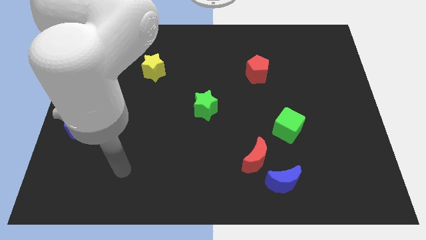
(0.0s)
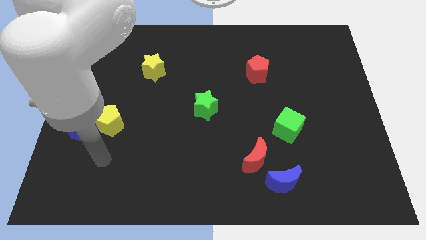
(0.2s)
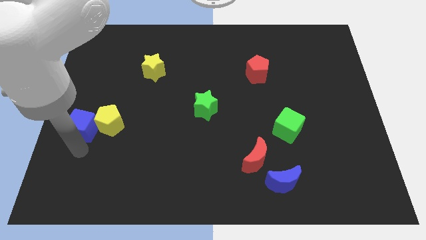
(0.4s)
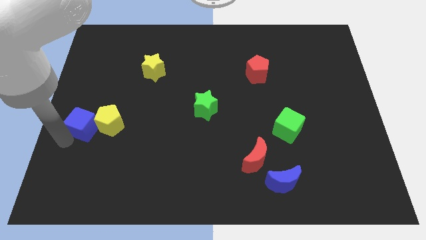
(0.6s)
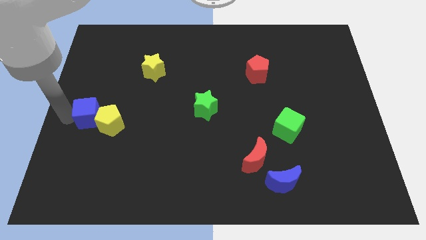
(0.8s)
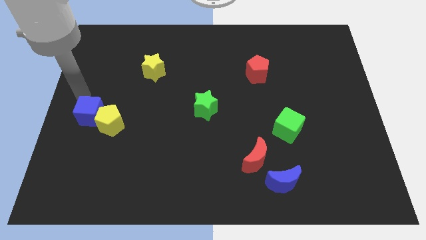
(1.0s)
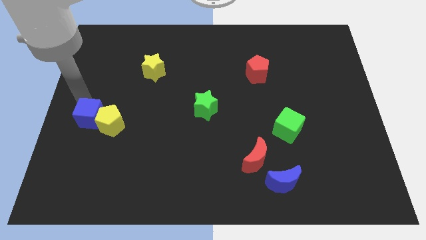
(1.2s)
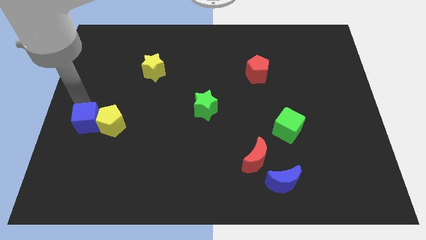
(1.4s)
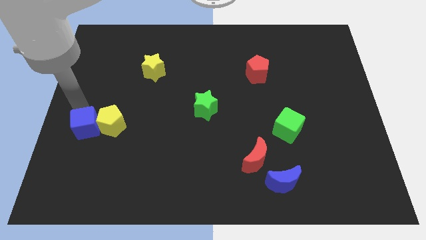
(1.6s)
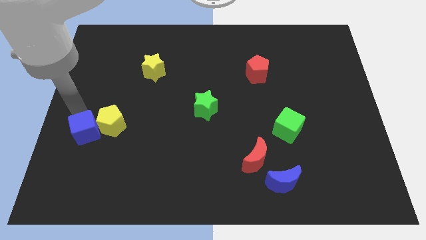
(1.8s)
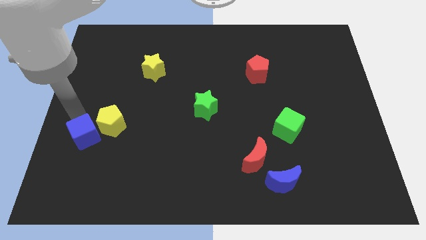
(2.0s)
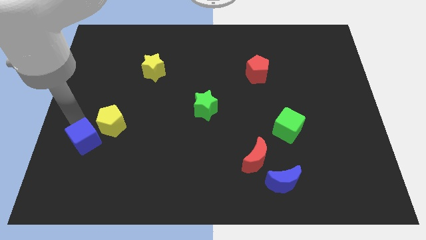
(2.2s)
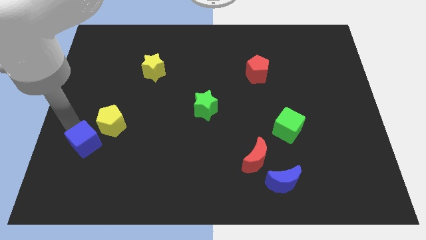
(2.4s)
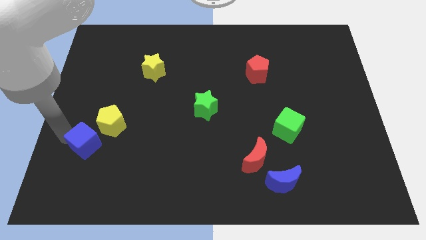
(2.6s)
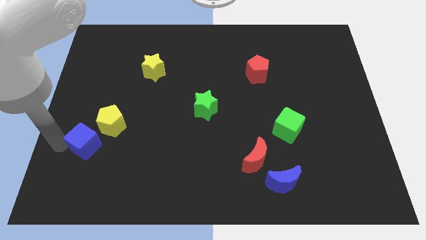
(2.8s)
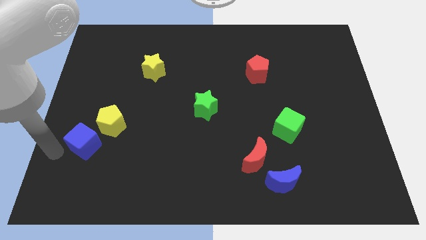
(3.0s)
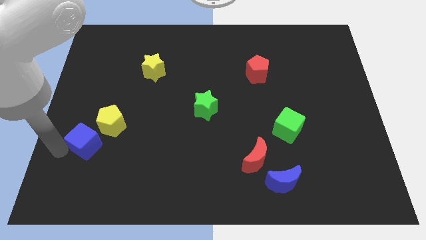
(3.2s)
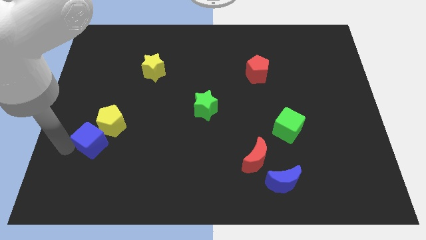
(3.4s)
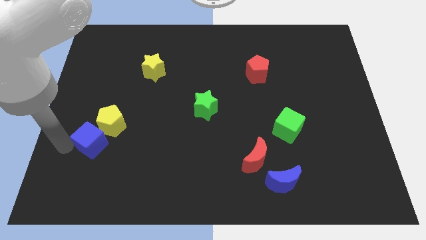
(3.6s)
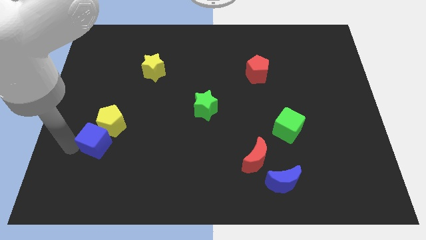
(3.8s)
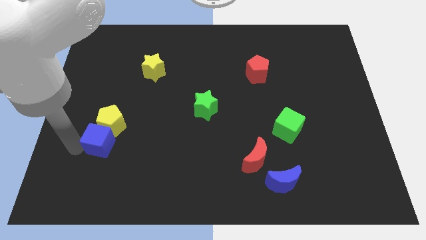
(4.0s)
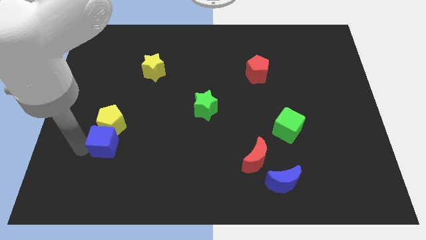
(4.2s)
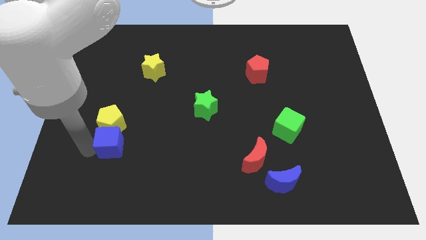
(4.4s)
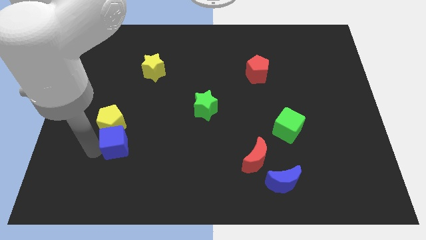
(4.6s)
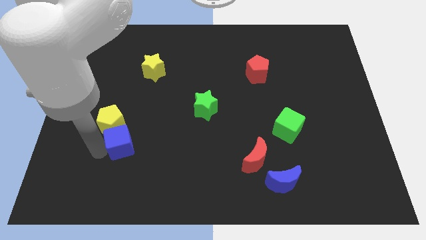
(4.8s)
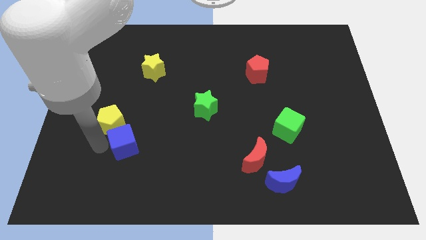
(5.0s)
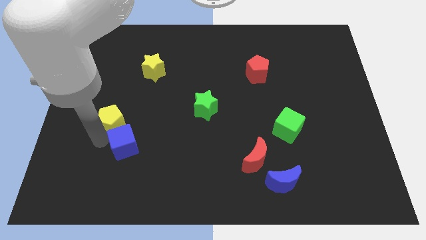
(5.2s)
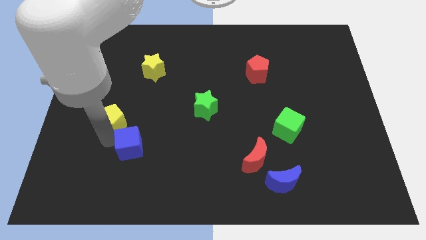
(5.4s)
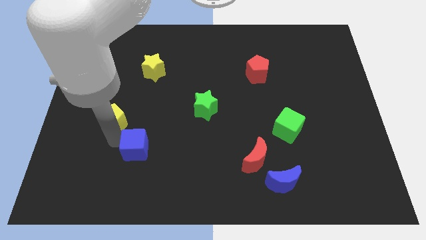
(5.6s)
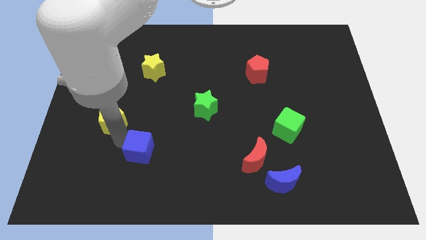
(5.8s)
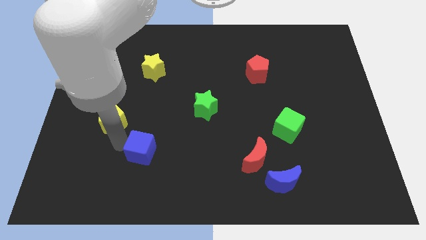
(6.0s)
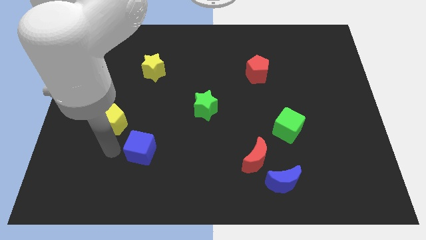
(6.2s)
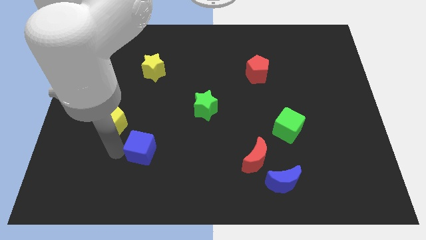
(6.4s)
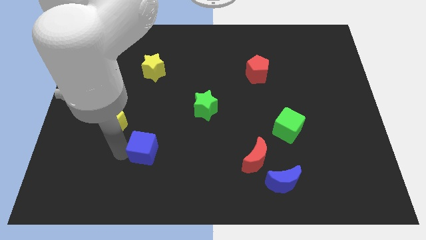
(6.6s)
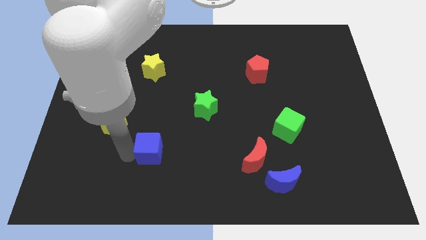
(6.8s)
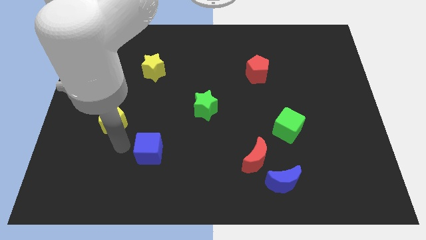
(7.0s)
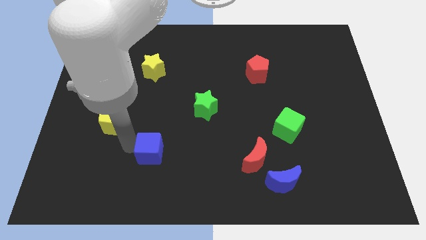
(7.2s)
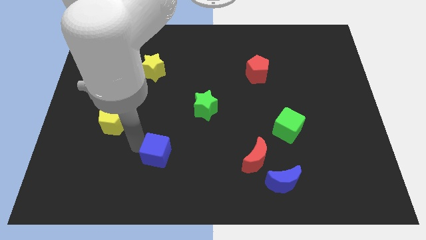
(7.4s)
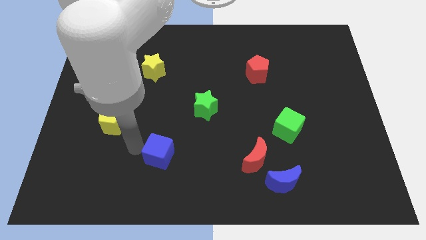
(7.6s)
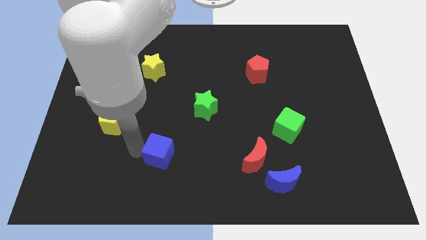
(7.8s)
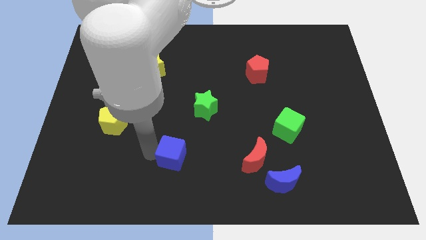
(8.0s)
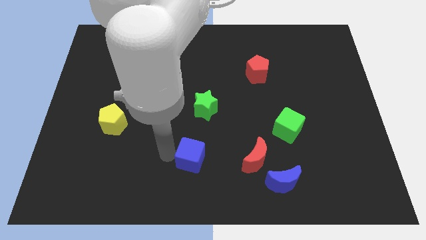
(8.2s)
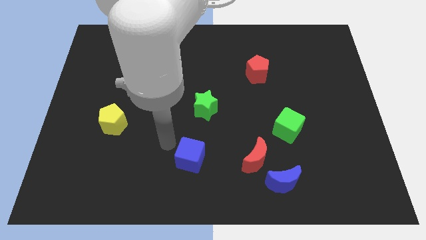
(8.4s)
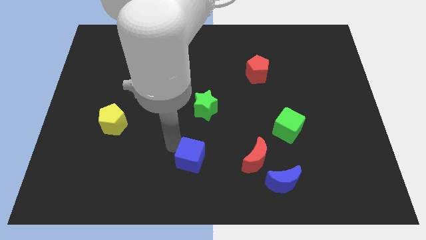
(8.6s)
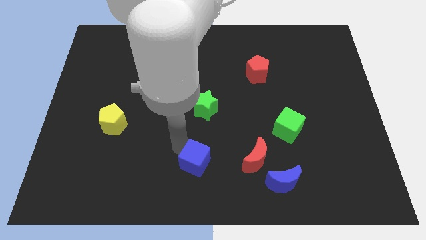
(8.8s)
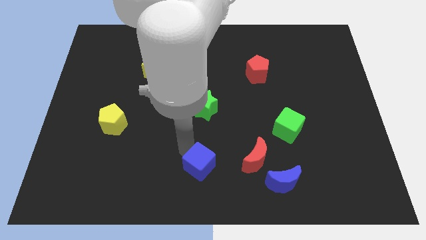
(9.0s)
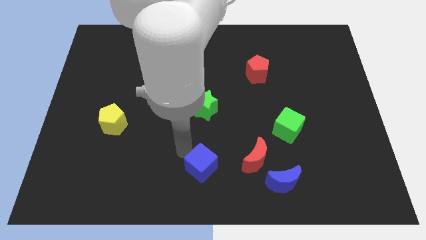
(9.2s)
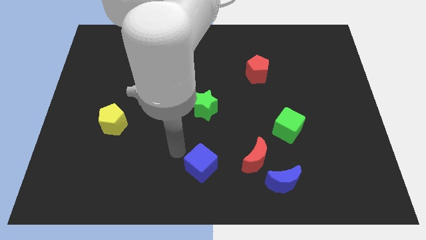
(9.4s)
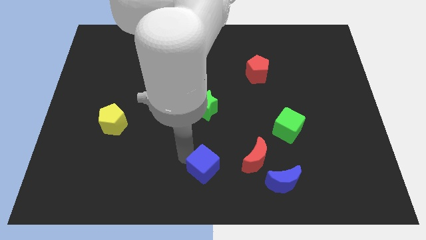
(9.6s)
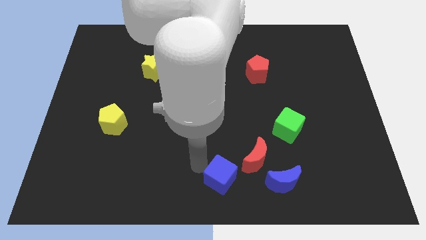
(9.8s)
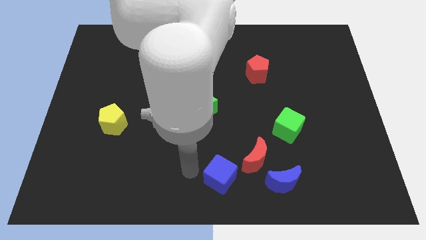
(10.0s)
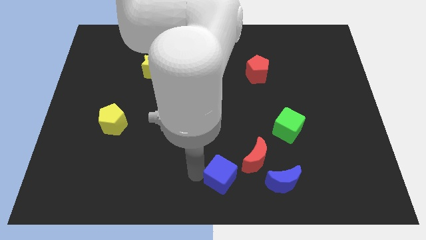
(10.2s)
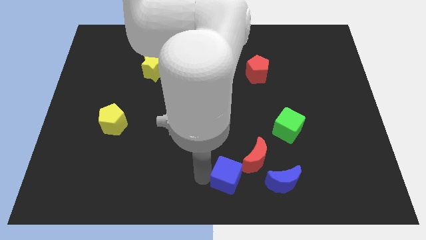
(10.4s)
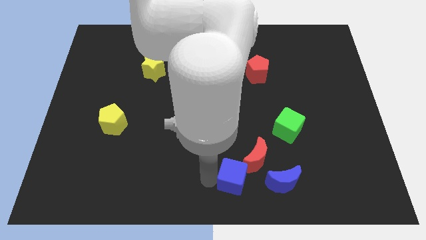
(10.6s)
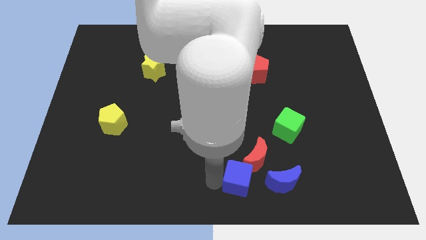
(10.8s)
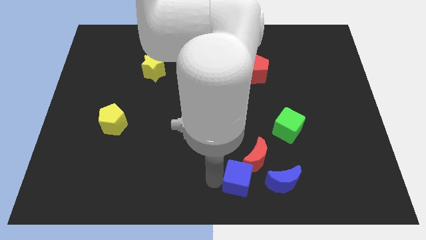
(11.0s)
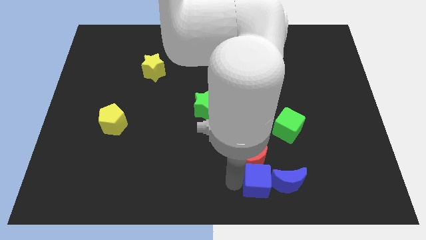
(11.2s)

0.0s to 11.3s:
put the blue cube next to the blue moon

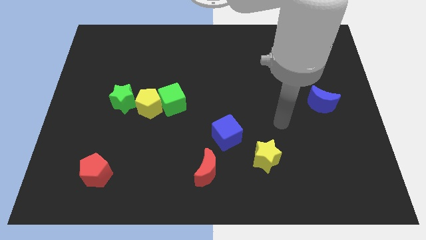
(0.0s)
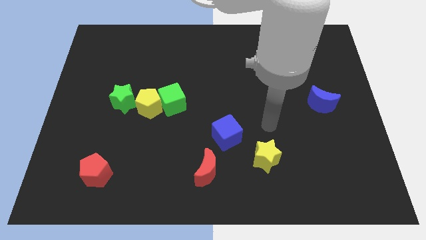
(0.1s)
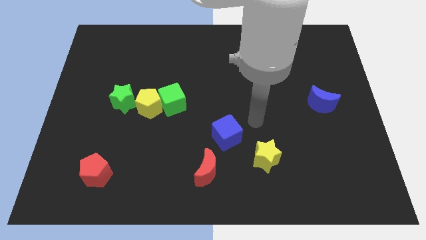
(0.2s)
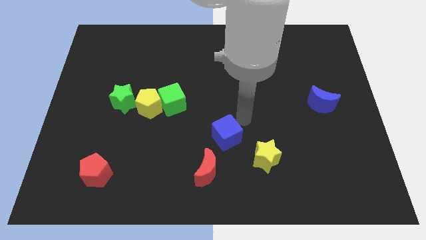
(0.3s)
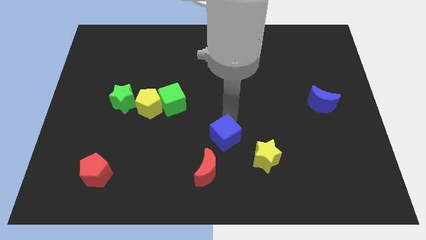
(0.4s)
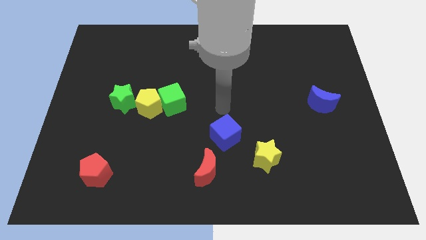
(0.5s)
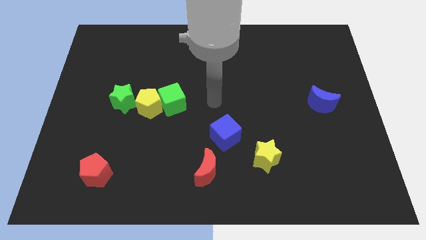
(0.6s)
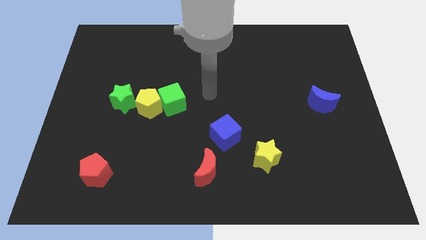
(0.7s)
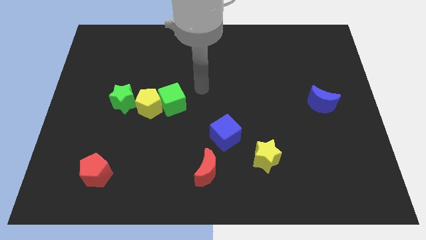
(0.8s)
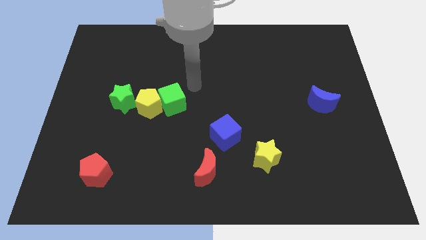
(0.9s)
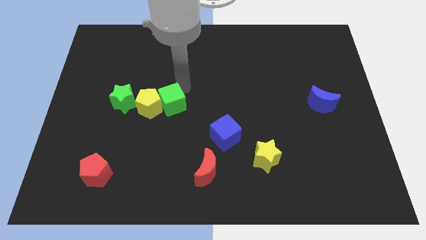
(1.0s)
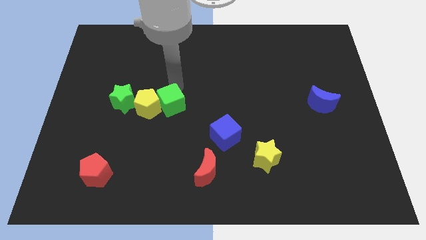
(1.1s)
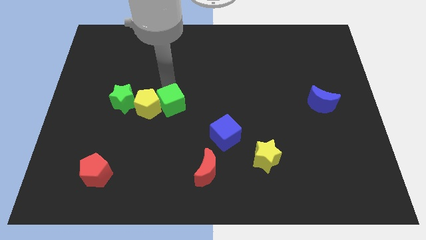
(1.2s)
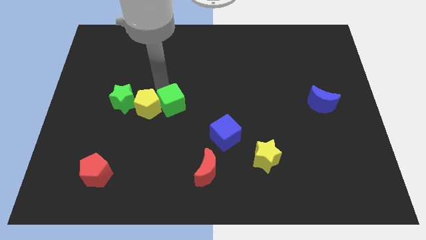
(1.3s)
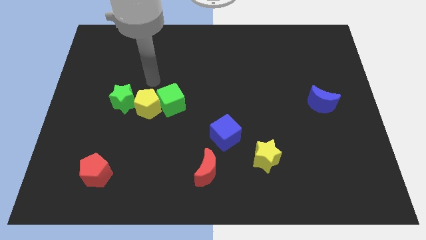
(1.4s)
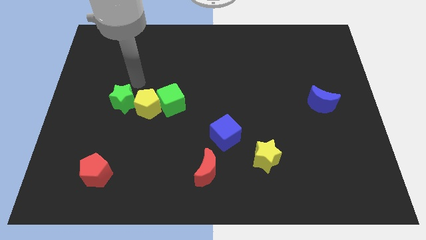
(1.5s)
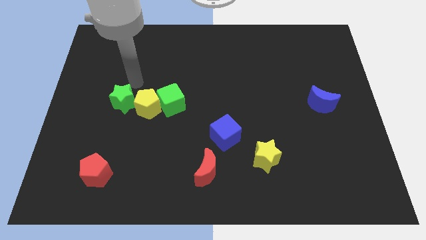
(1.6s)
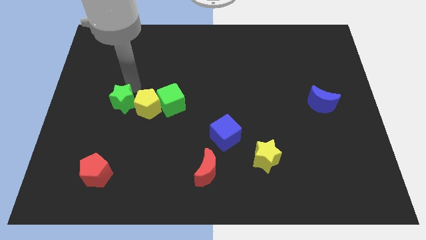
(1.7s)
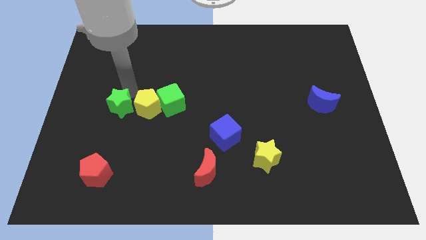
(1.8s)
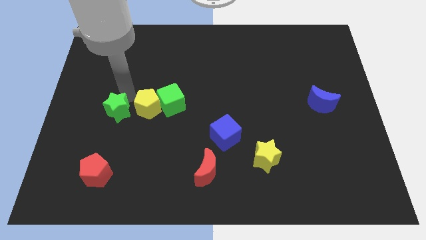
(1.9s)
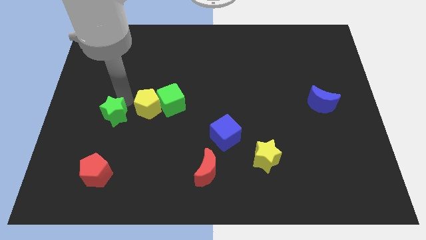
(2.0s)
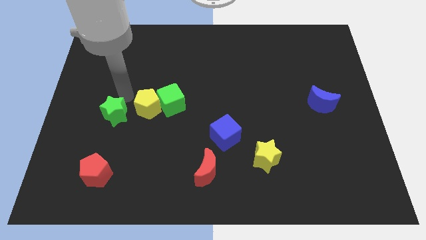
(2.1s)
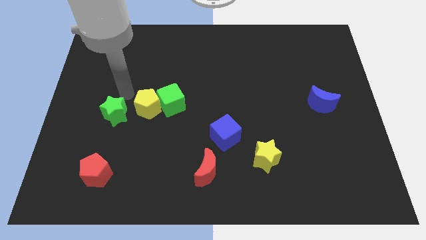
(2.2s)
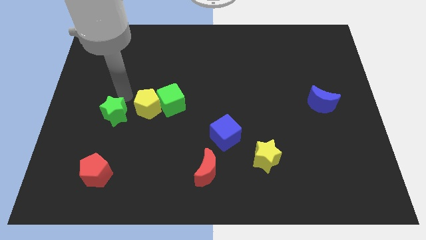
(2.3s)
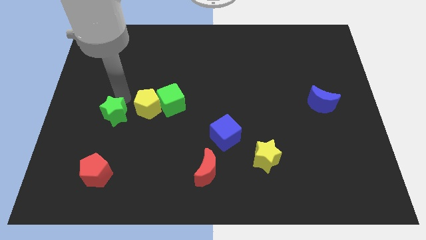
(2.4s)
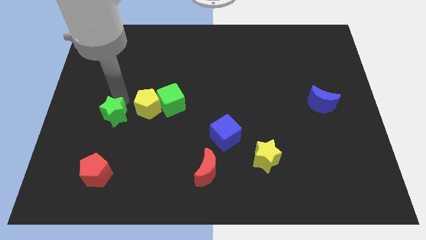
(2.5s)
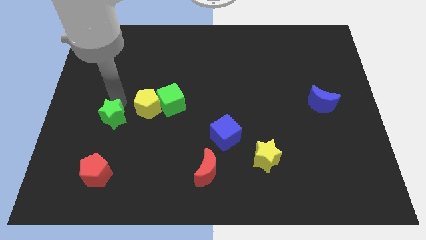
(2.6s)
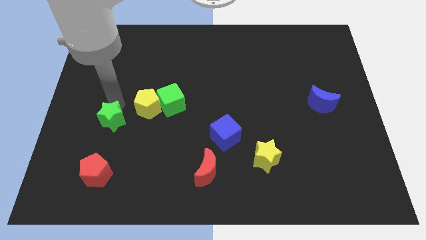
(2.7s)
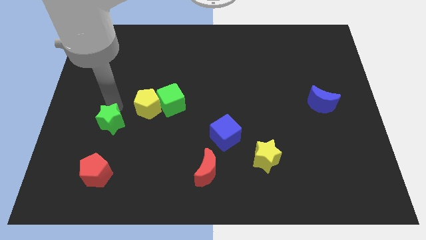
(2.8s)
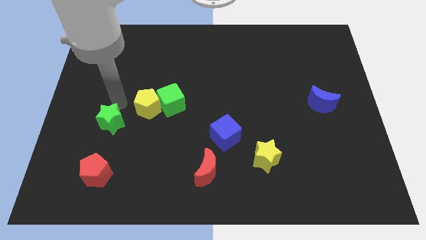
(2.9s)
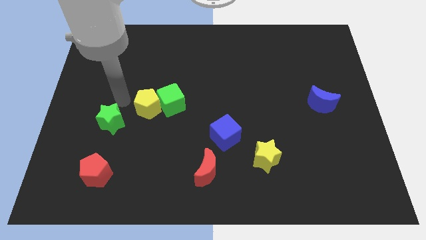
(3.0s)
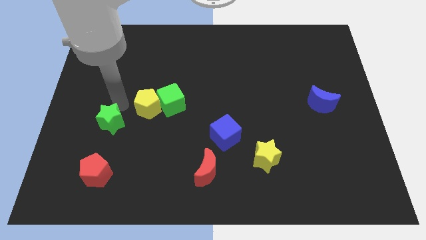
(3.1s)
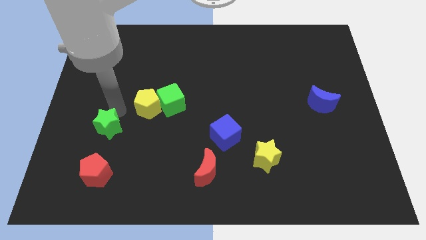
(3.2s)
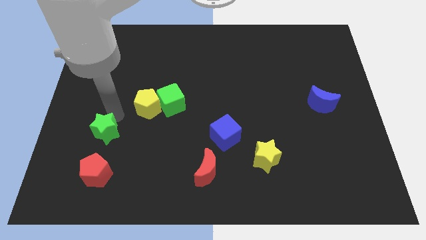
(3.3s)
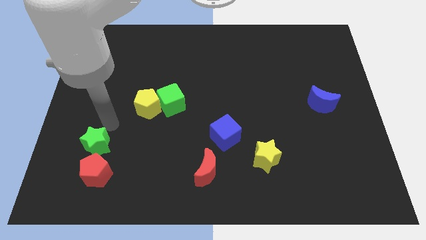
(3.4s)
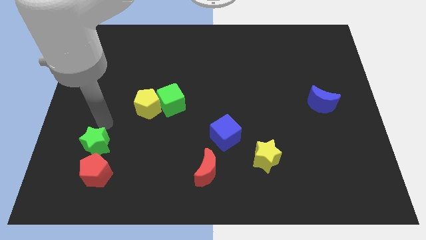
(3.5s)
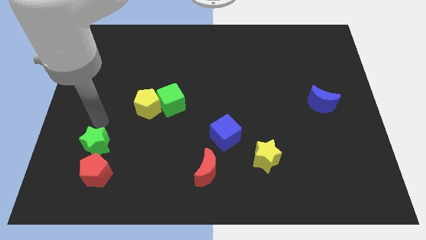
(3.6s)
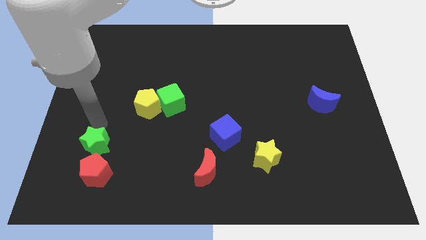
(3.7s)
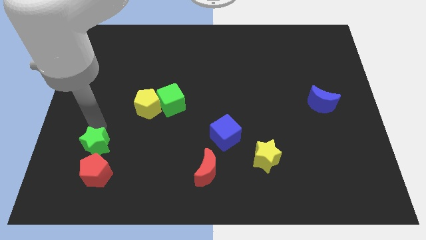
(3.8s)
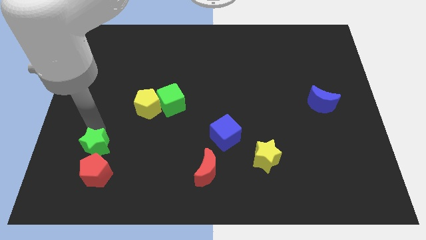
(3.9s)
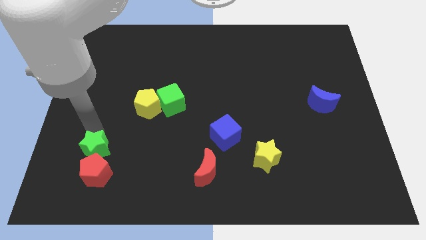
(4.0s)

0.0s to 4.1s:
slide the green star to the red pentagon
